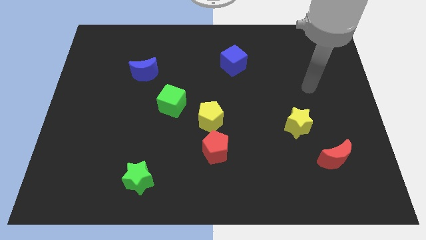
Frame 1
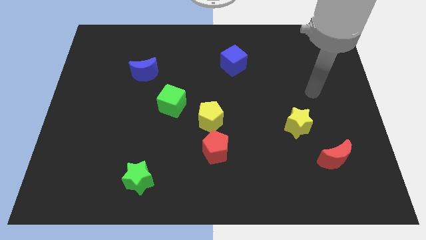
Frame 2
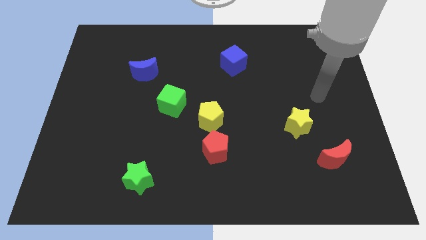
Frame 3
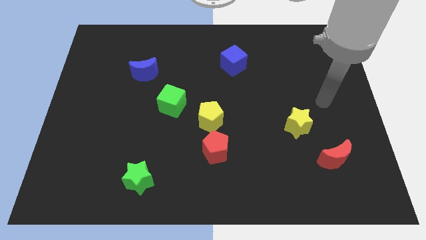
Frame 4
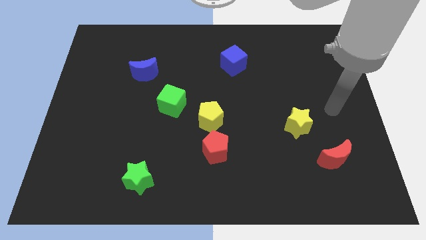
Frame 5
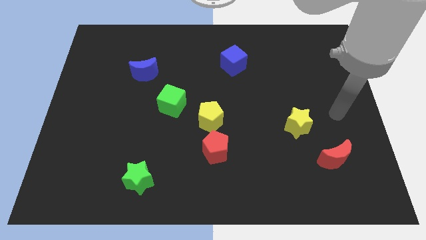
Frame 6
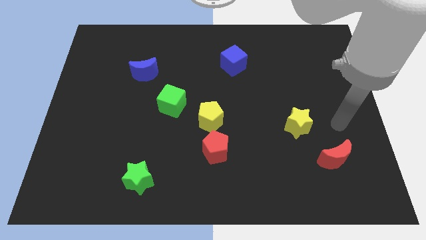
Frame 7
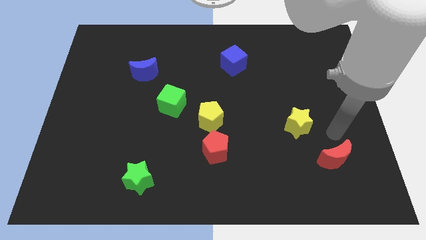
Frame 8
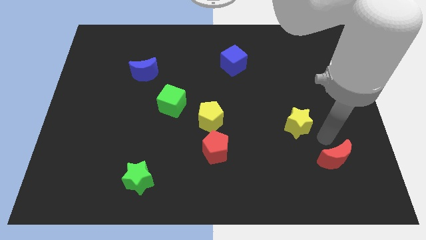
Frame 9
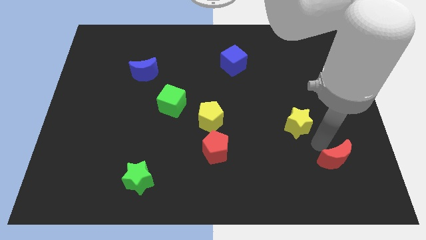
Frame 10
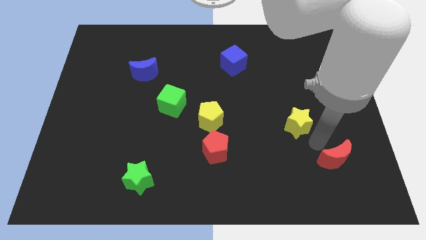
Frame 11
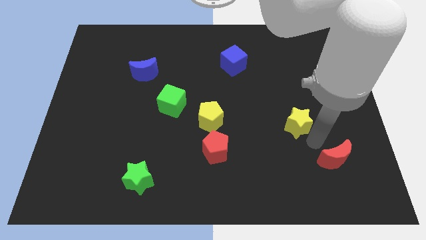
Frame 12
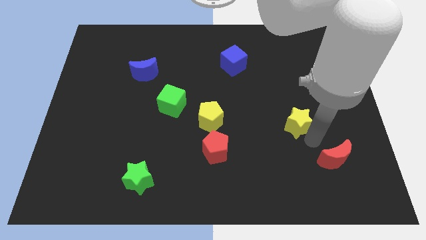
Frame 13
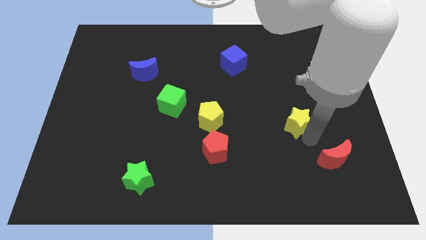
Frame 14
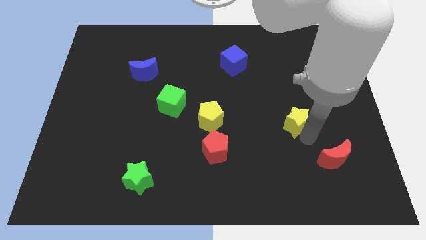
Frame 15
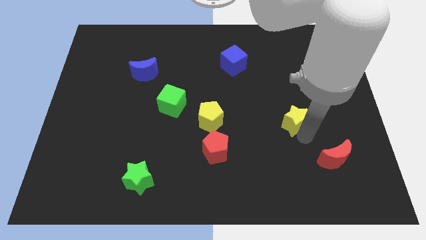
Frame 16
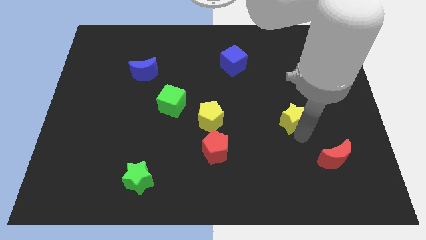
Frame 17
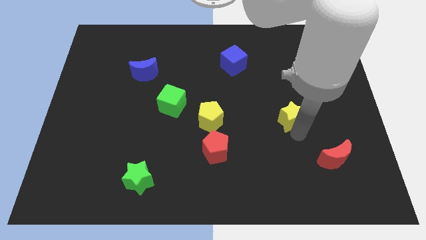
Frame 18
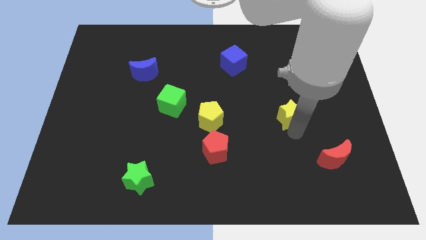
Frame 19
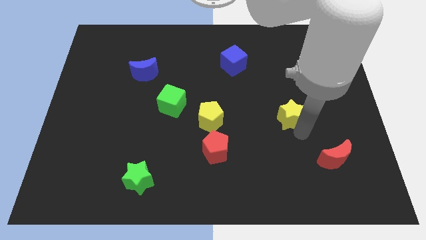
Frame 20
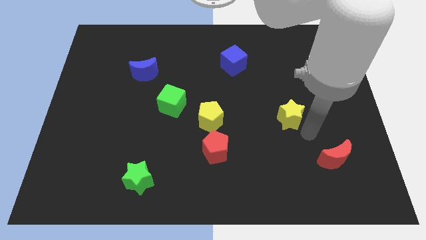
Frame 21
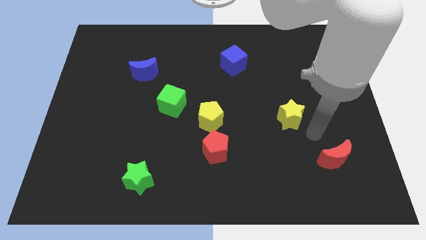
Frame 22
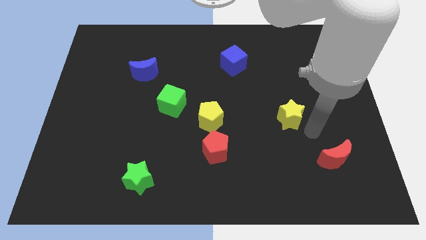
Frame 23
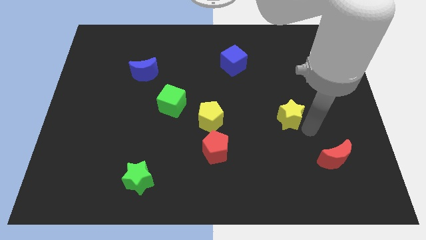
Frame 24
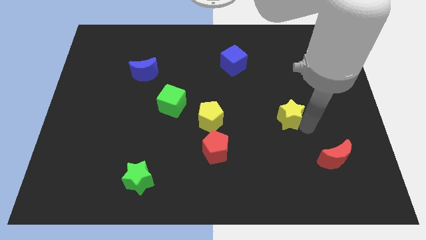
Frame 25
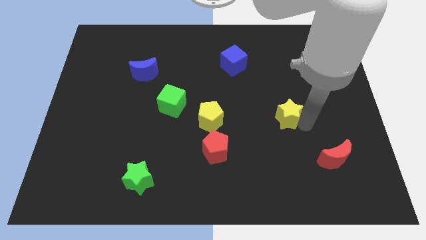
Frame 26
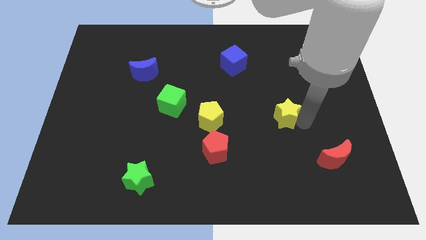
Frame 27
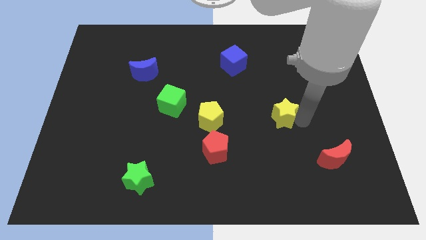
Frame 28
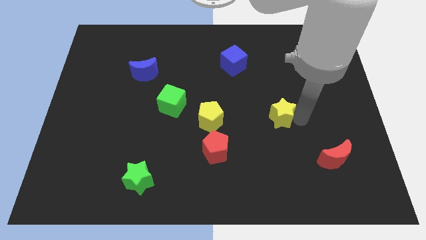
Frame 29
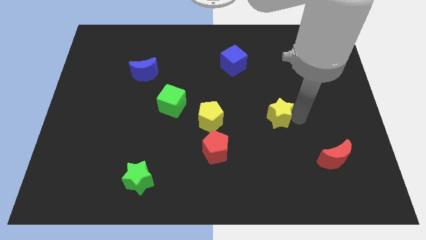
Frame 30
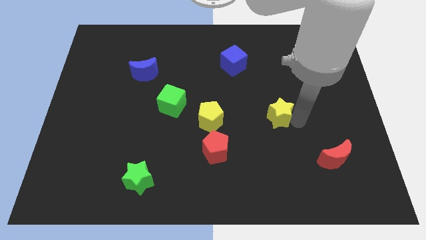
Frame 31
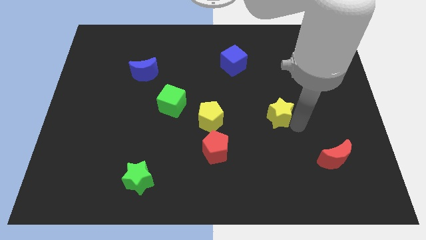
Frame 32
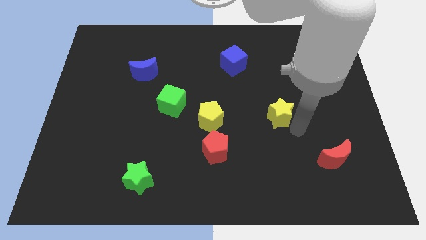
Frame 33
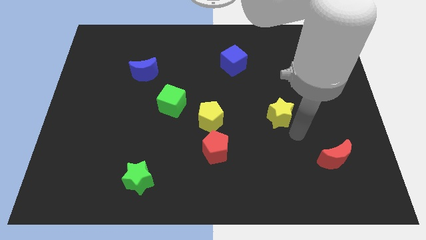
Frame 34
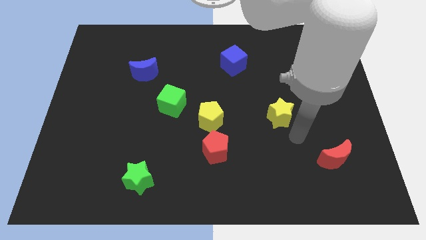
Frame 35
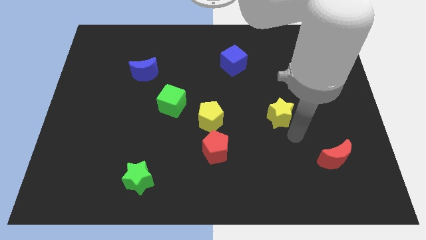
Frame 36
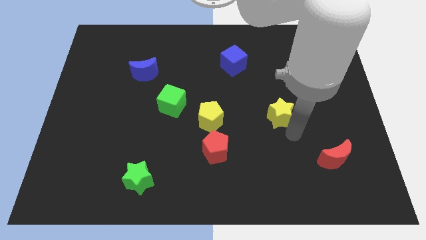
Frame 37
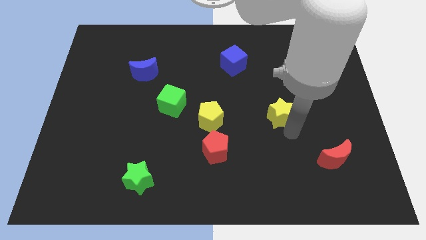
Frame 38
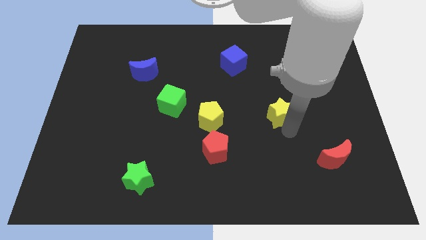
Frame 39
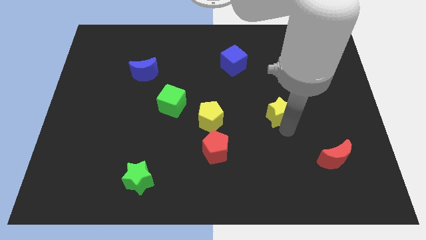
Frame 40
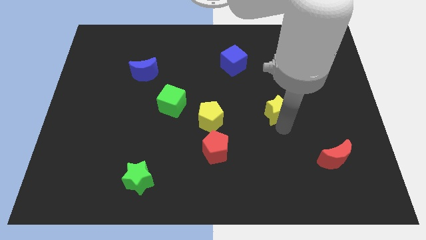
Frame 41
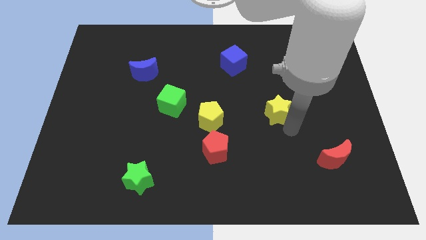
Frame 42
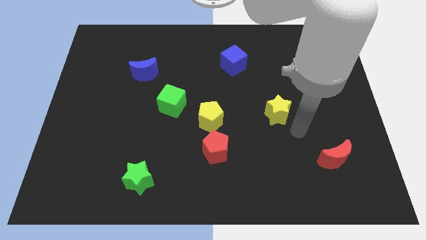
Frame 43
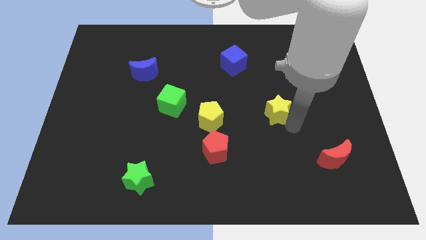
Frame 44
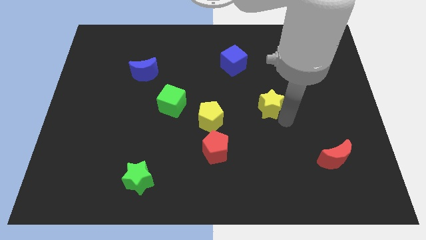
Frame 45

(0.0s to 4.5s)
move the yellow star up and then to the left somewhat

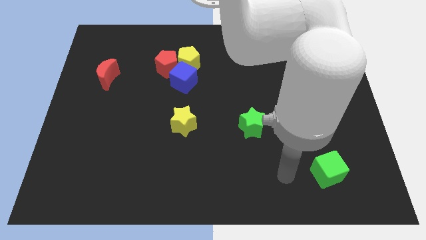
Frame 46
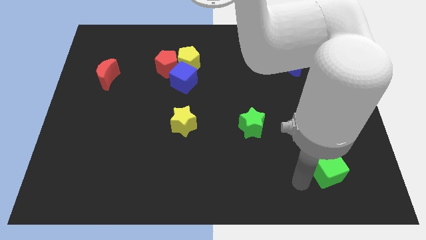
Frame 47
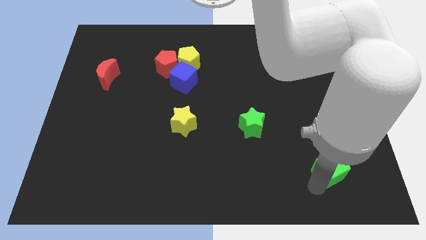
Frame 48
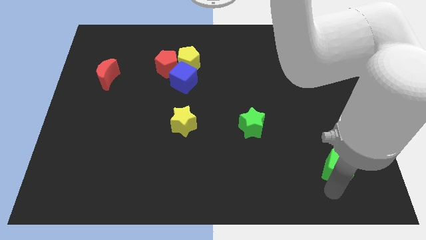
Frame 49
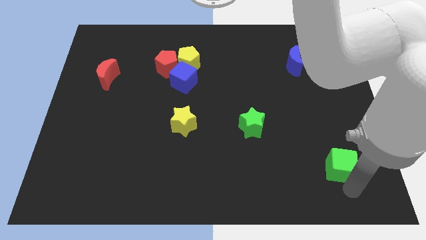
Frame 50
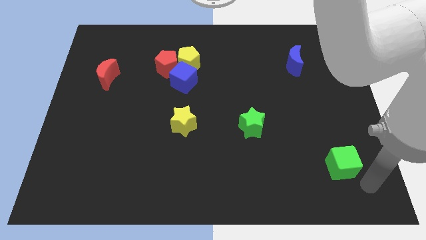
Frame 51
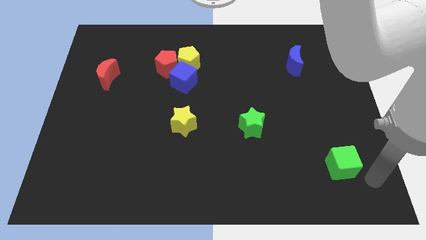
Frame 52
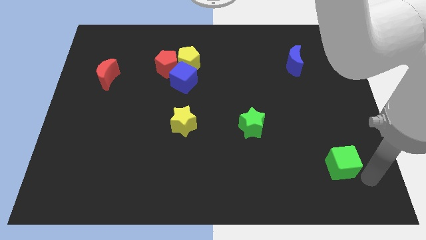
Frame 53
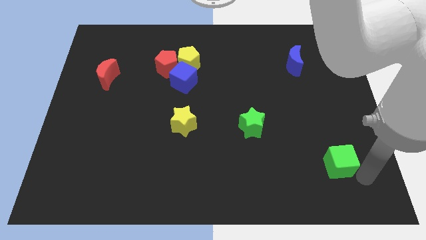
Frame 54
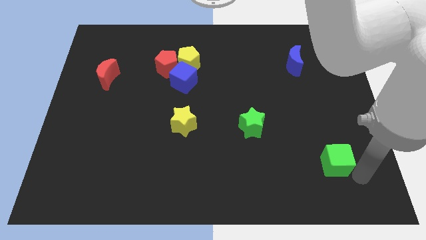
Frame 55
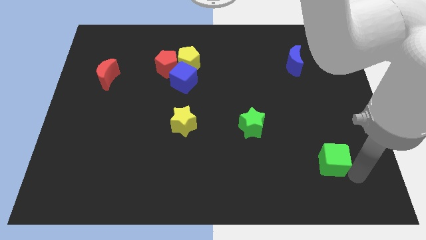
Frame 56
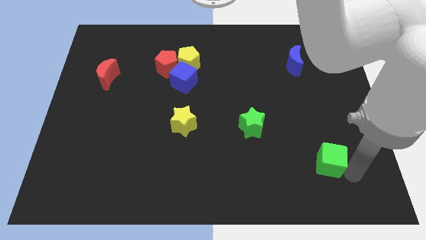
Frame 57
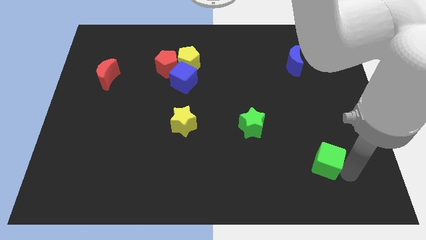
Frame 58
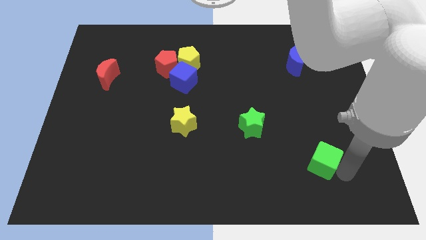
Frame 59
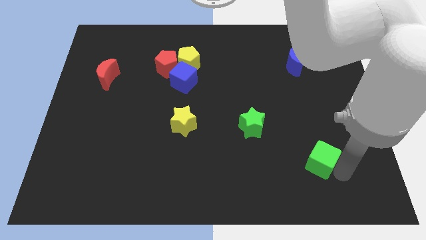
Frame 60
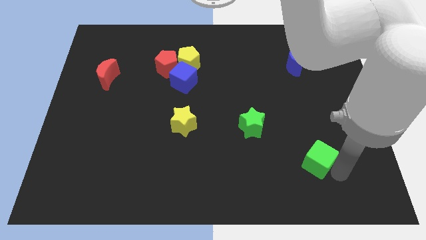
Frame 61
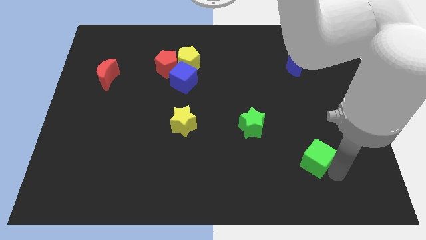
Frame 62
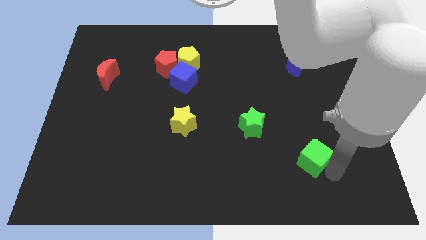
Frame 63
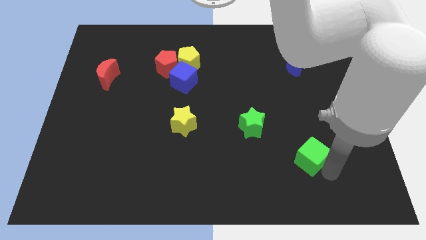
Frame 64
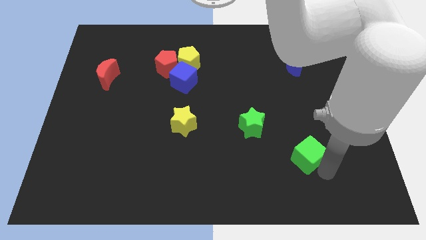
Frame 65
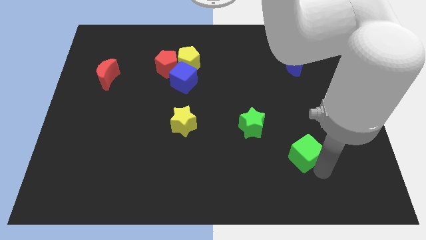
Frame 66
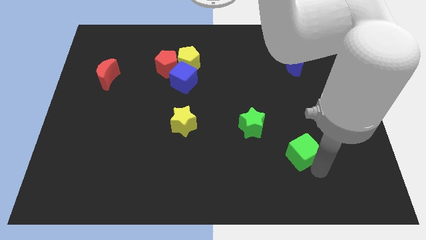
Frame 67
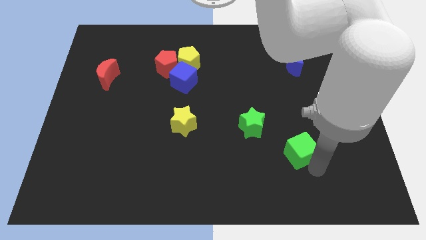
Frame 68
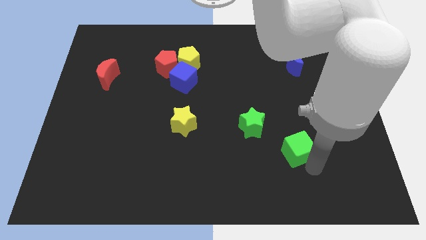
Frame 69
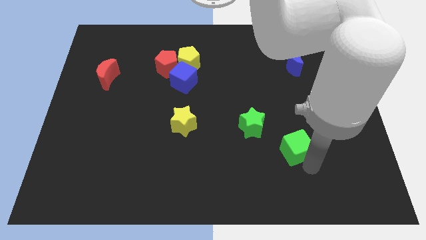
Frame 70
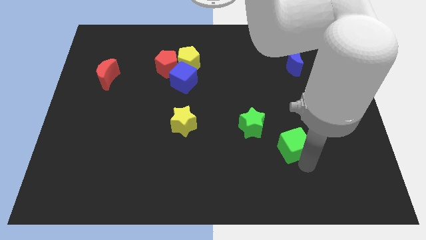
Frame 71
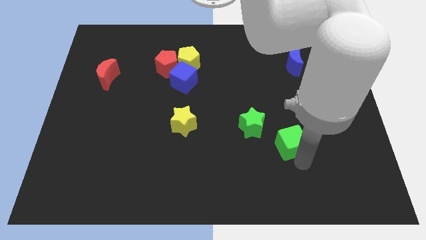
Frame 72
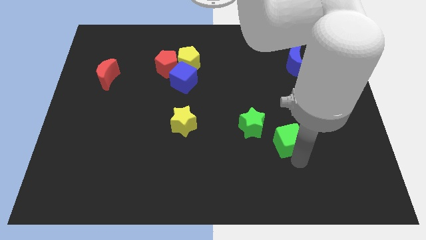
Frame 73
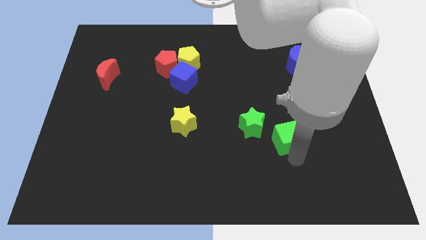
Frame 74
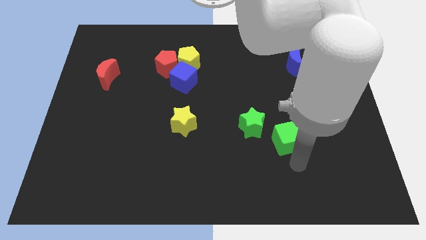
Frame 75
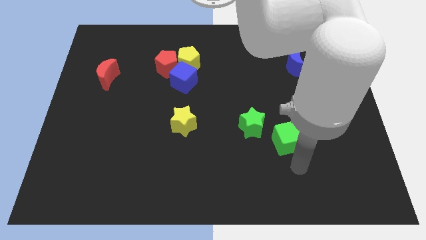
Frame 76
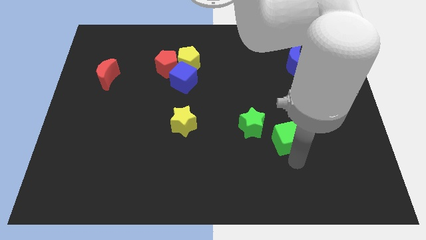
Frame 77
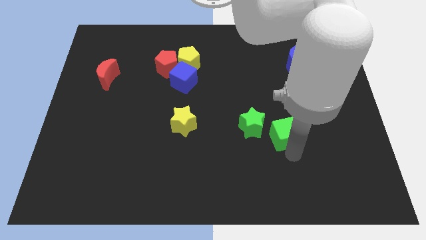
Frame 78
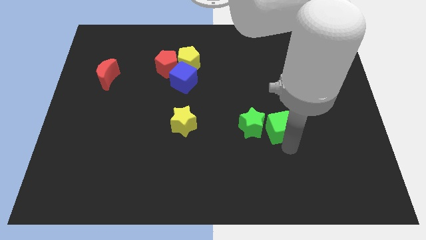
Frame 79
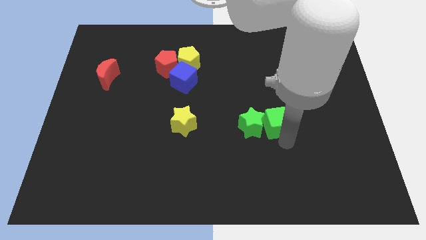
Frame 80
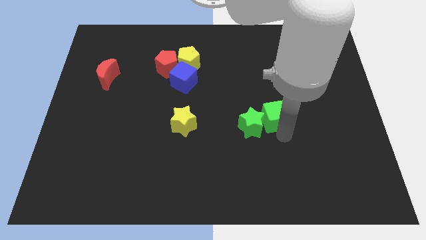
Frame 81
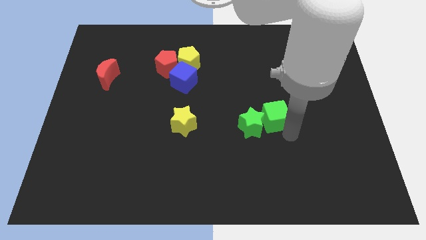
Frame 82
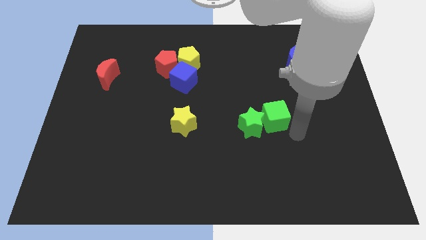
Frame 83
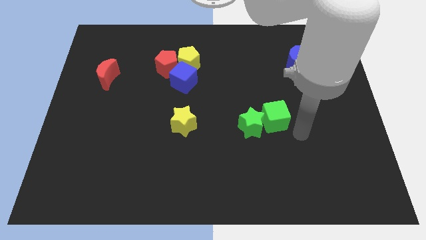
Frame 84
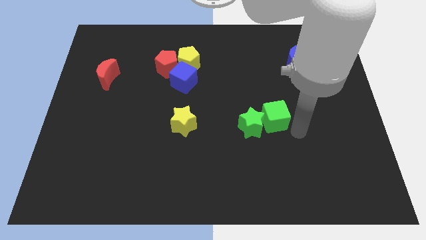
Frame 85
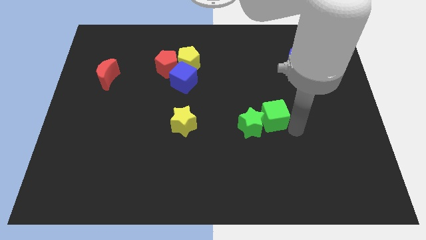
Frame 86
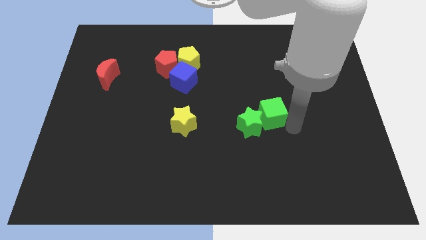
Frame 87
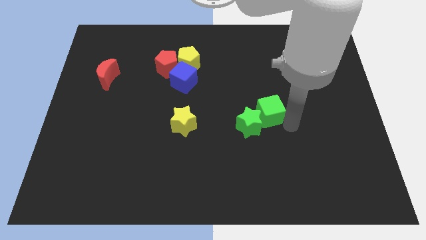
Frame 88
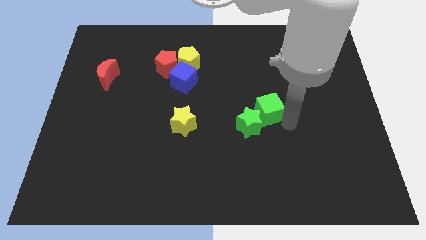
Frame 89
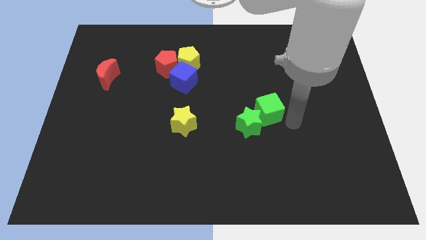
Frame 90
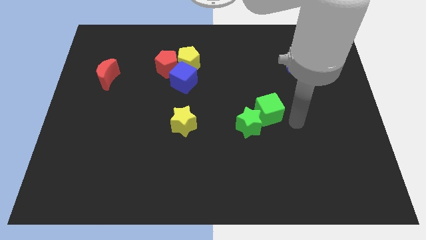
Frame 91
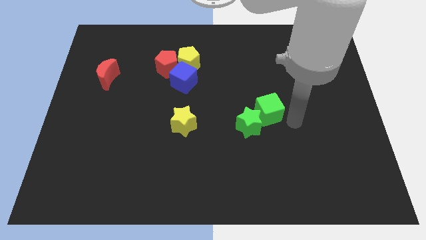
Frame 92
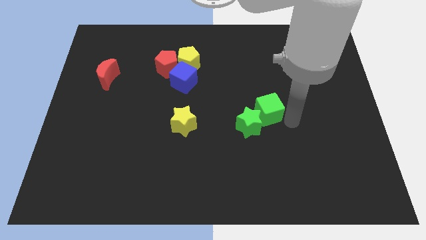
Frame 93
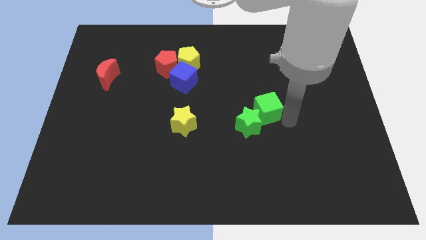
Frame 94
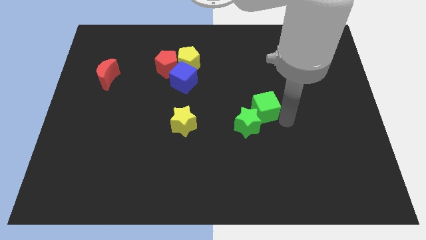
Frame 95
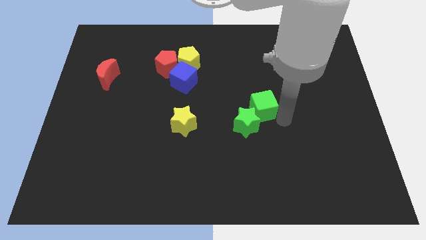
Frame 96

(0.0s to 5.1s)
slide the green cube upwards and left
